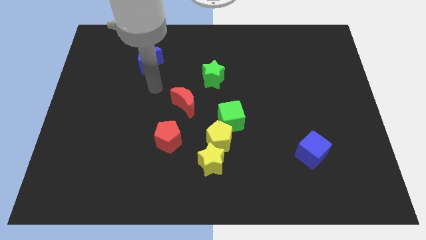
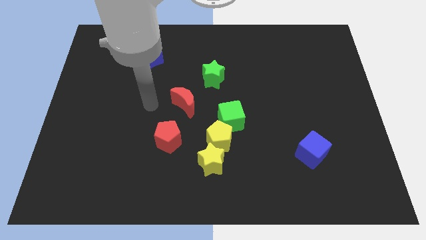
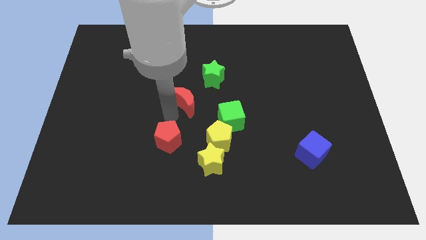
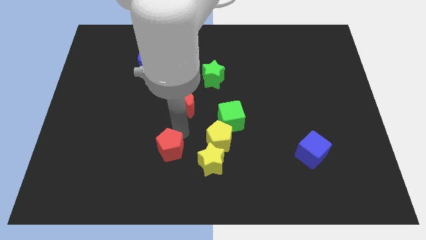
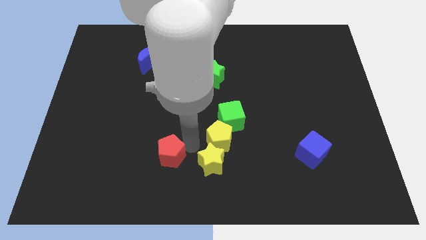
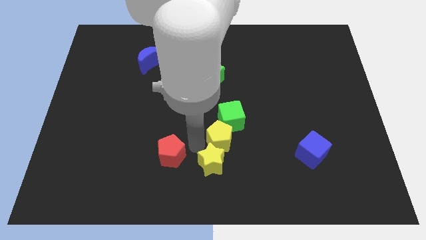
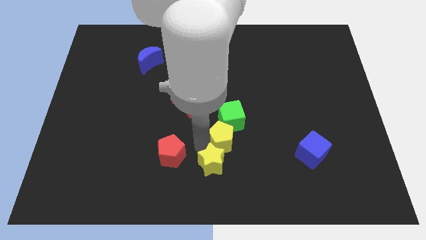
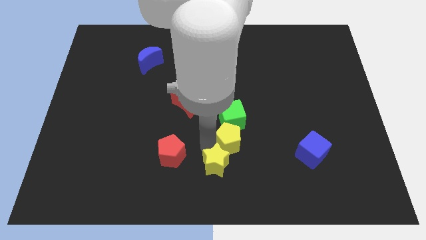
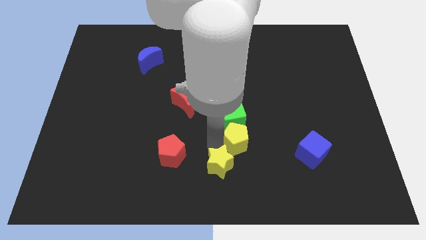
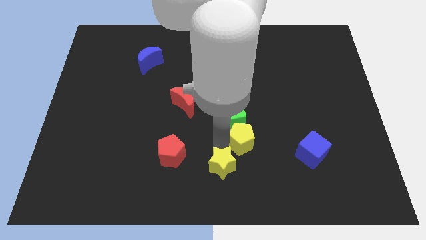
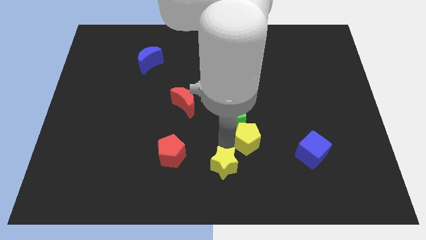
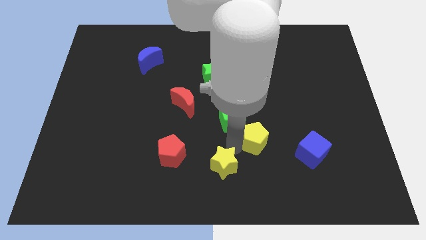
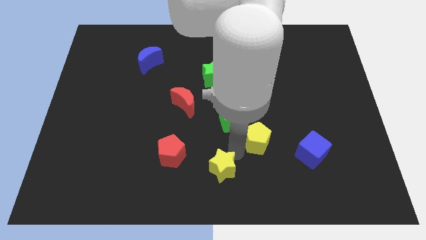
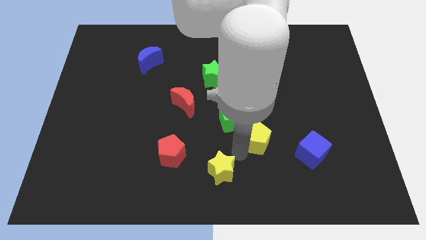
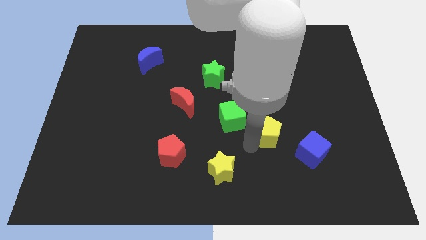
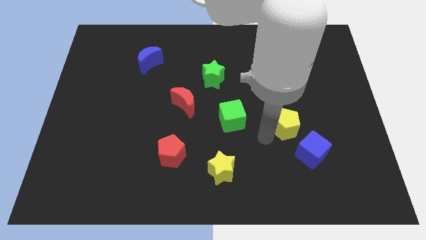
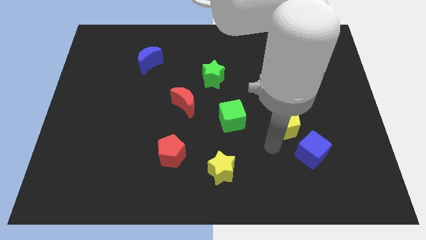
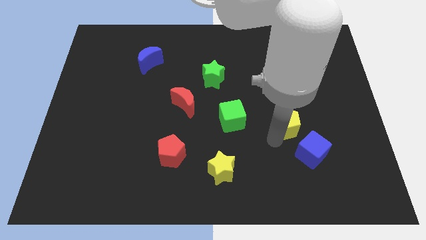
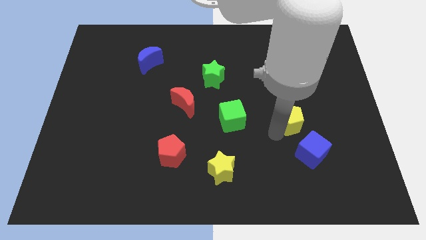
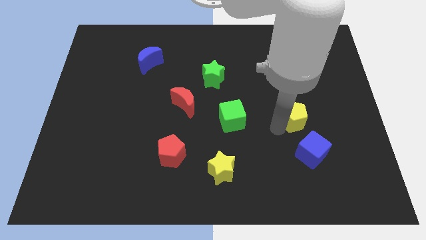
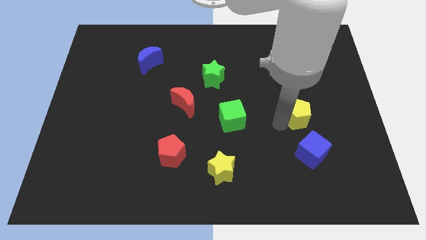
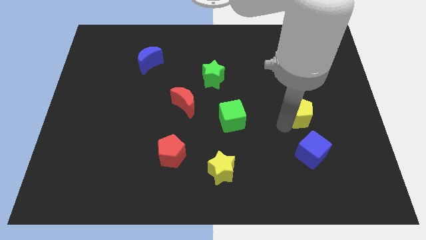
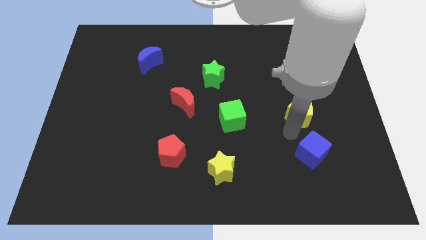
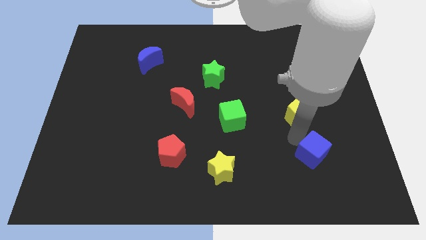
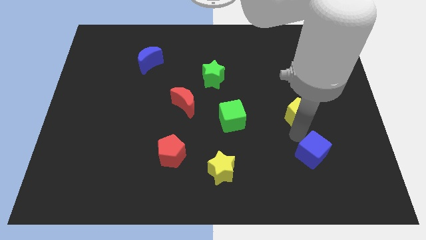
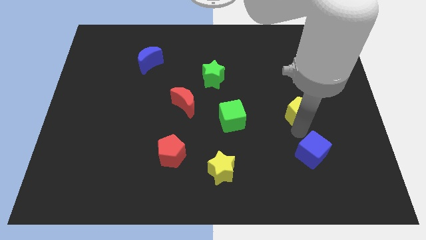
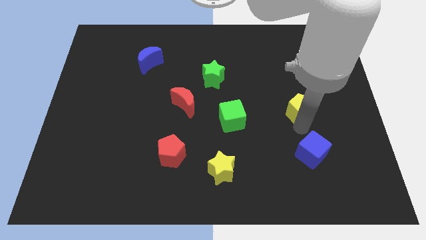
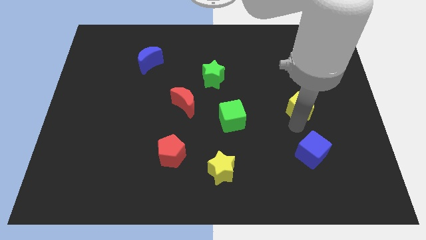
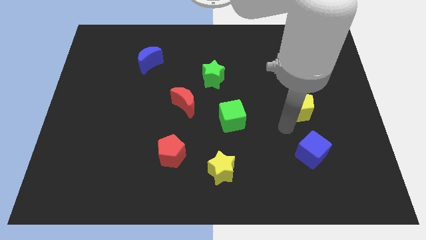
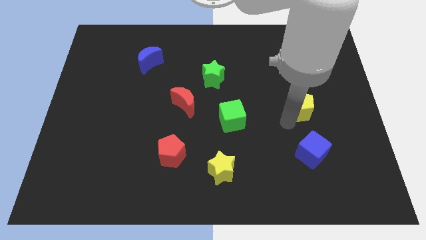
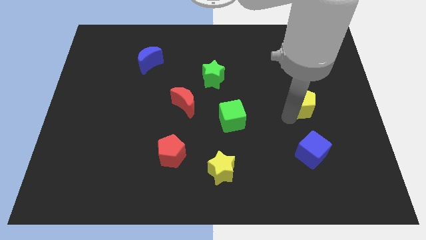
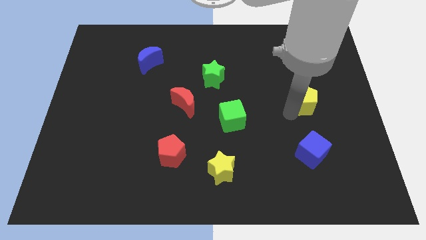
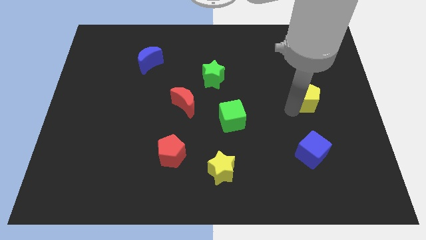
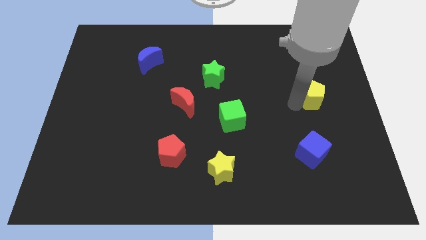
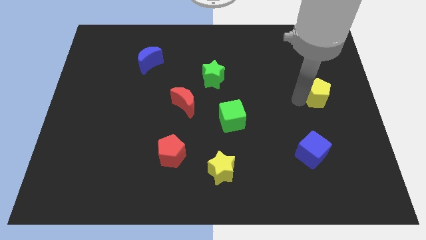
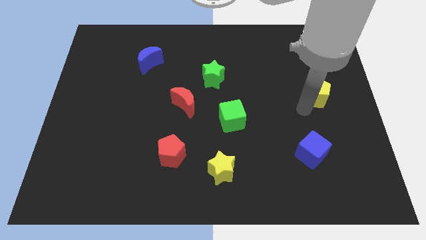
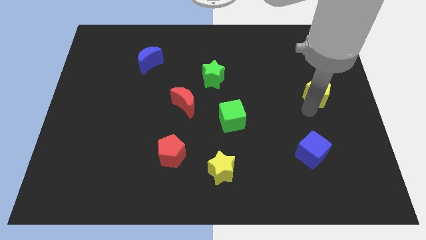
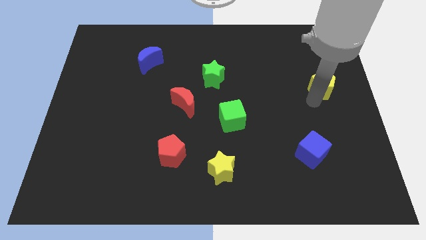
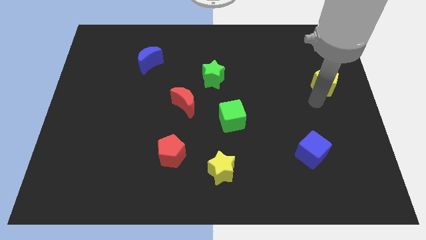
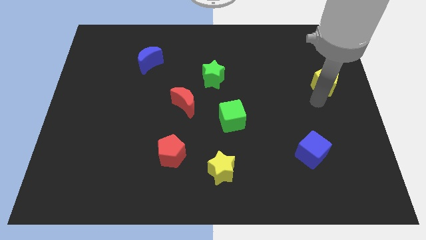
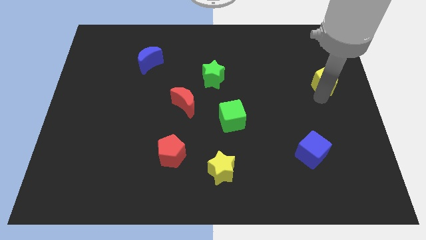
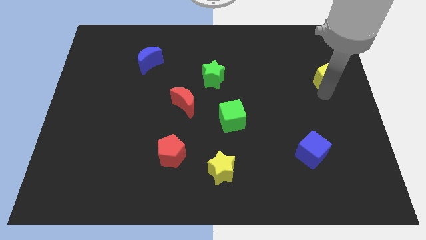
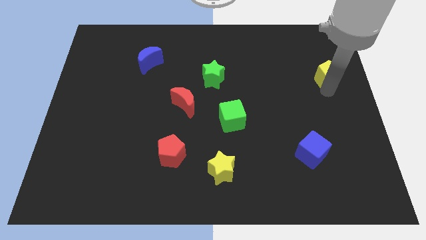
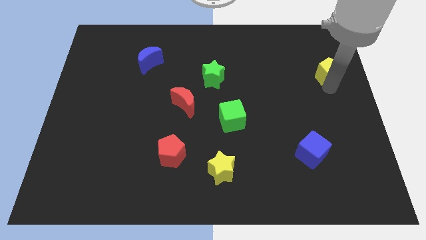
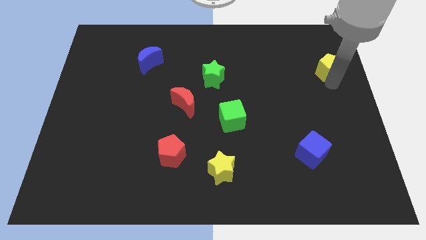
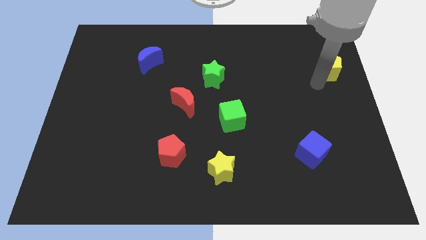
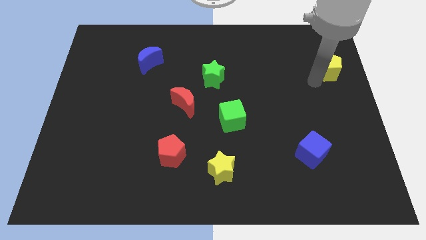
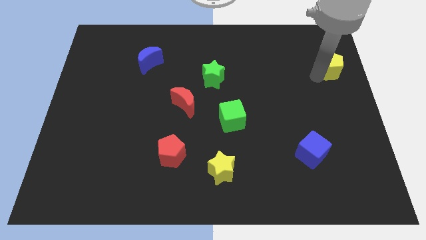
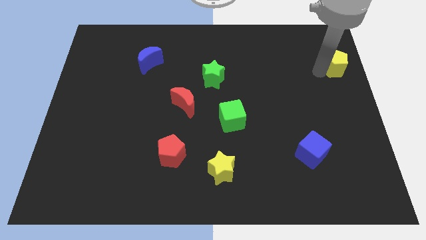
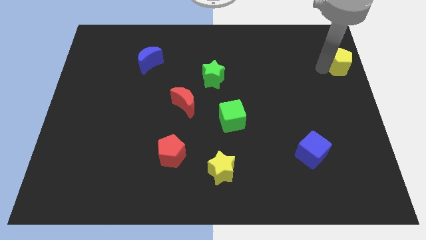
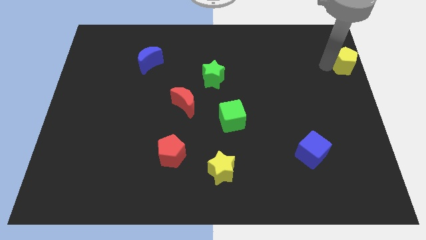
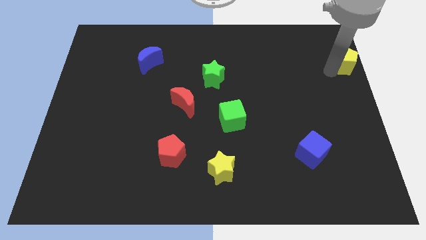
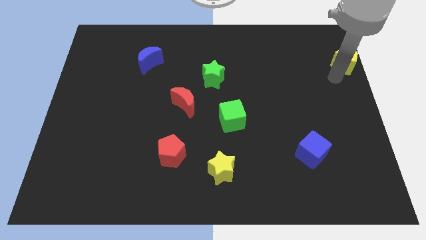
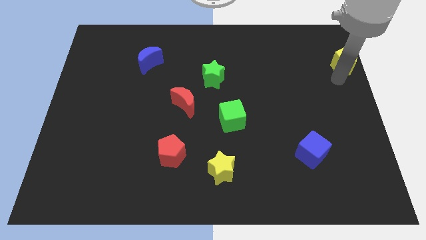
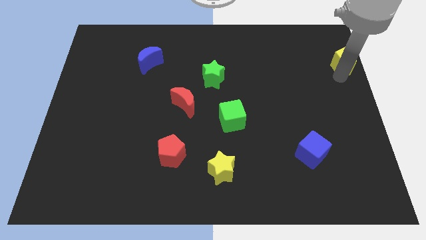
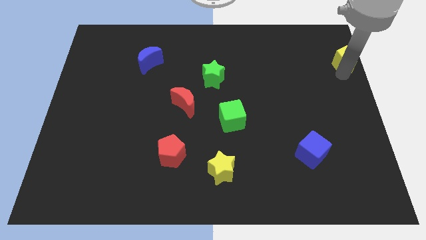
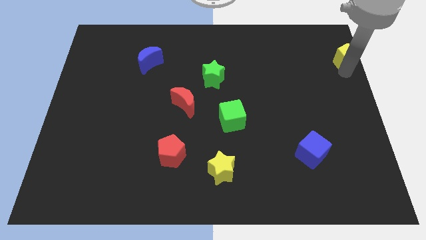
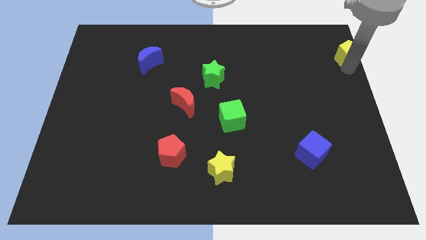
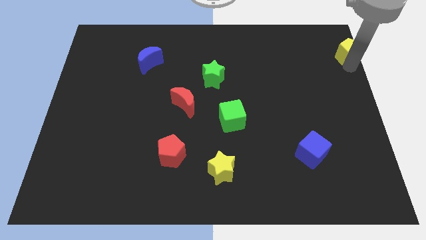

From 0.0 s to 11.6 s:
push the yellow pentagon to the top right corner

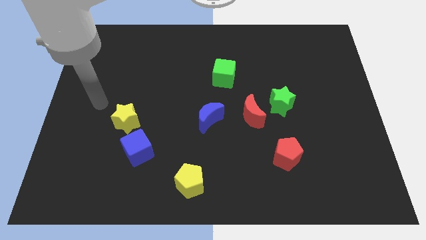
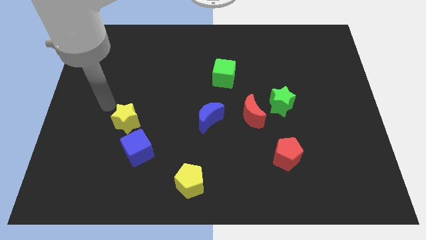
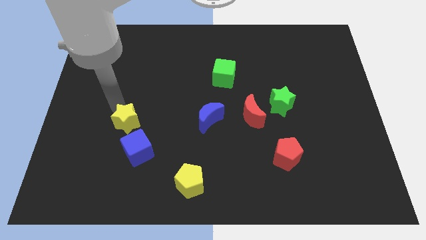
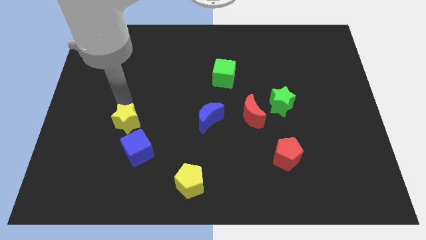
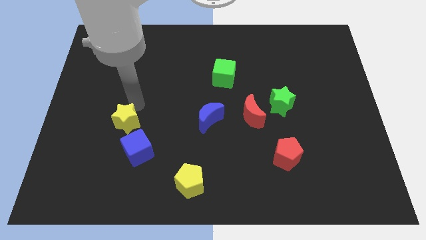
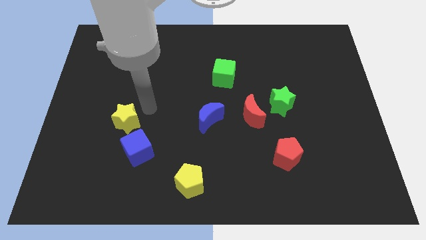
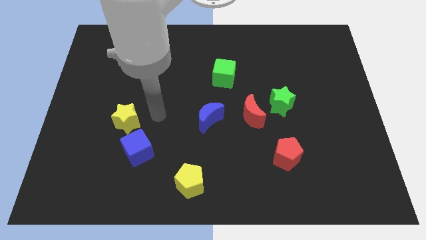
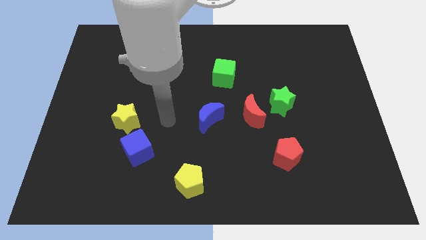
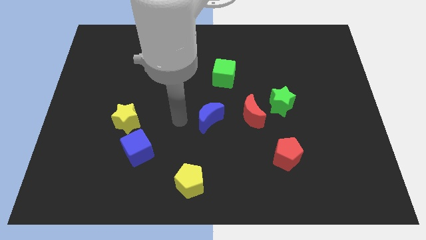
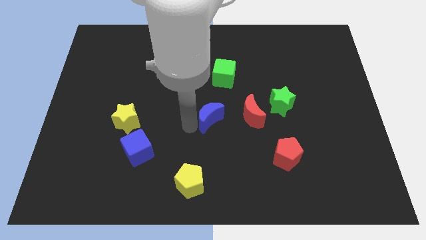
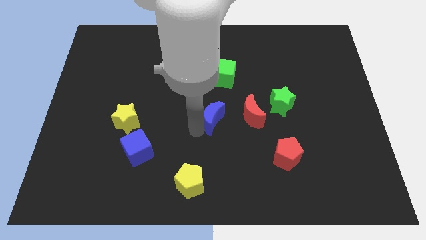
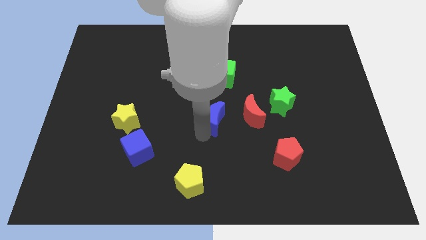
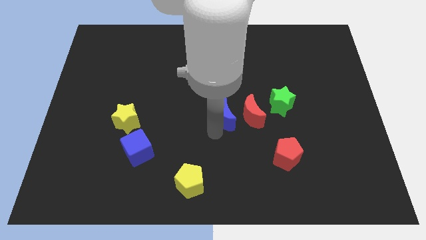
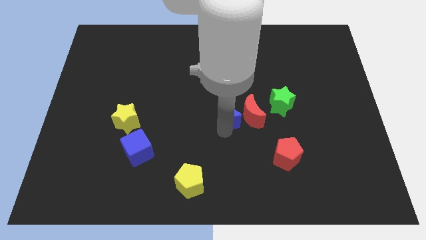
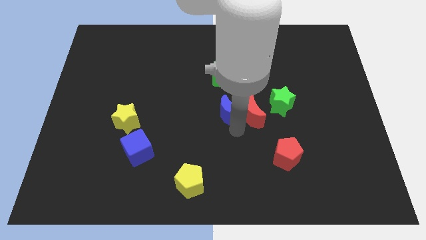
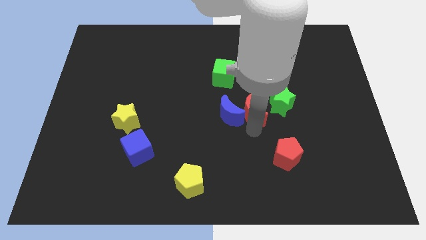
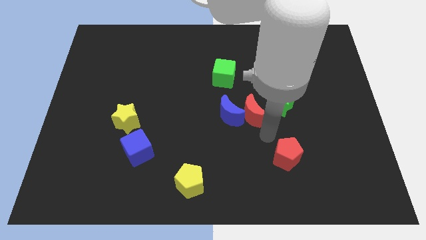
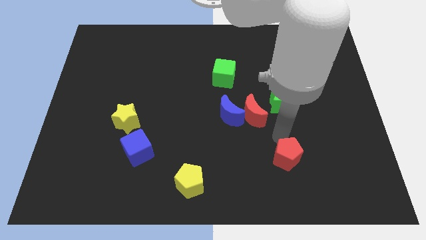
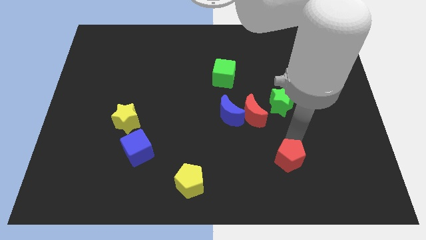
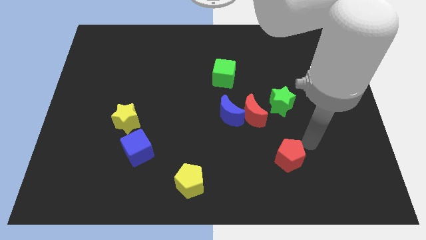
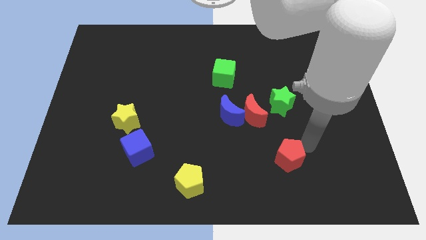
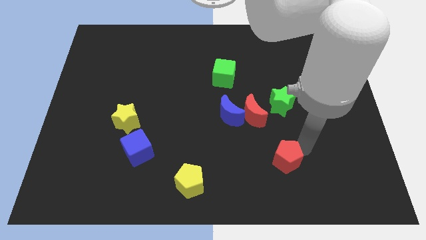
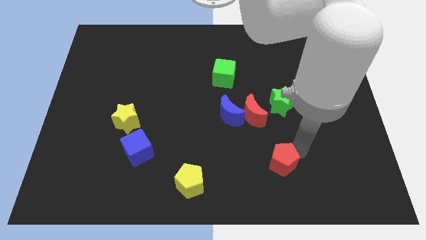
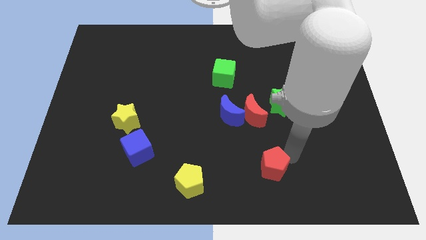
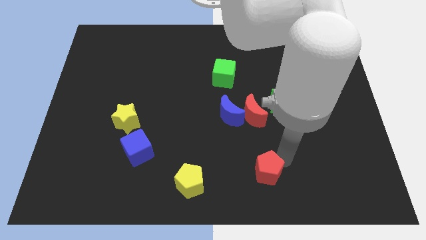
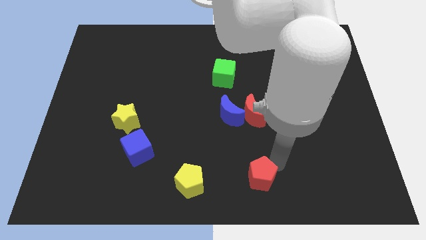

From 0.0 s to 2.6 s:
slide the red pentagon to the bottom
